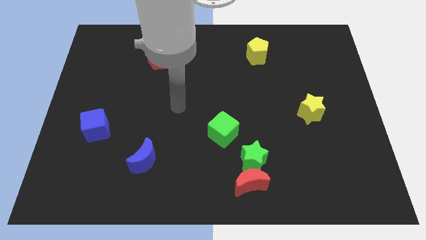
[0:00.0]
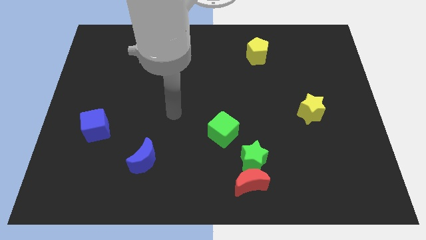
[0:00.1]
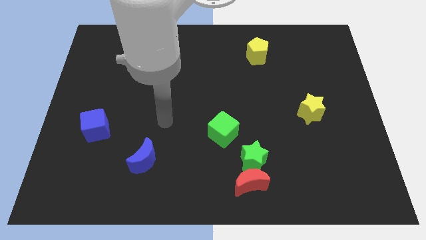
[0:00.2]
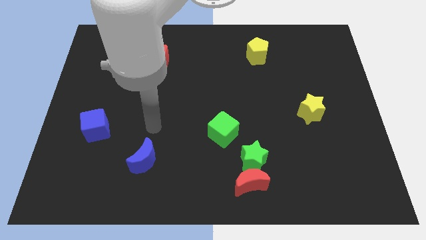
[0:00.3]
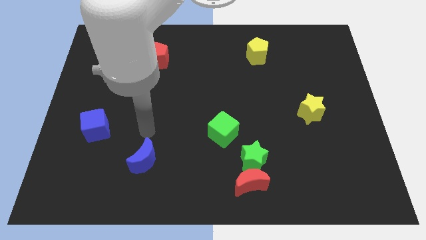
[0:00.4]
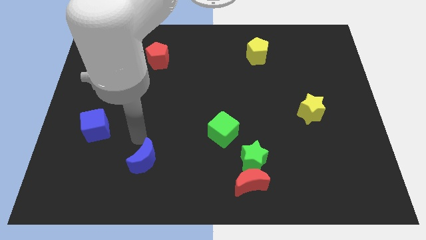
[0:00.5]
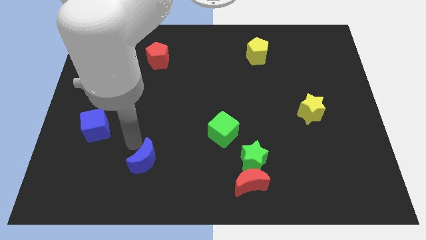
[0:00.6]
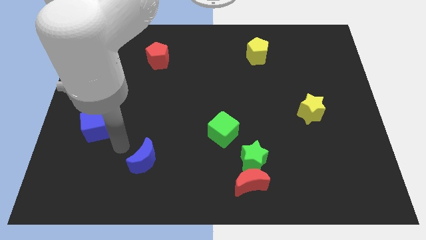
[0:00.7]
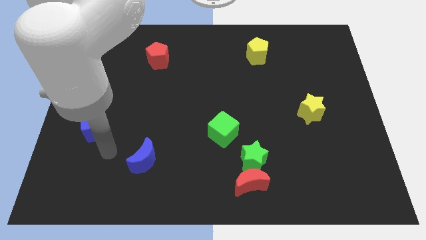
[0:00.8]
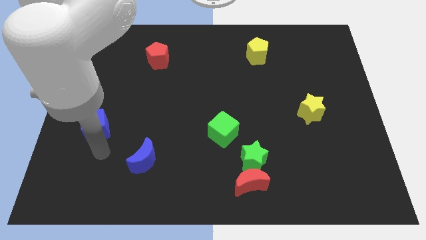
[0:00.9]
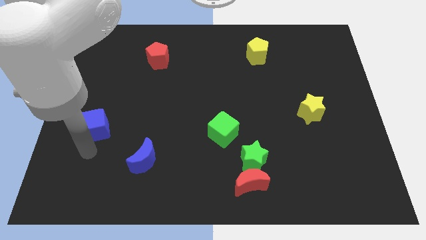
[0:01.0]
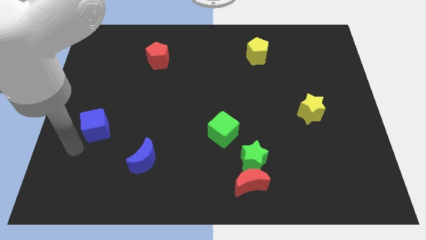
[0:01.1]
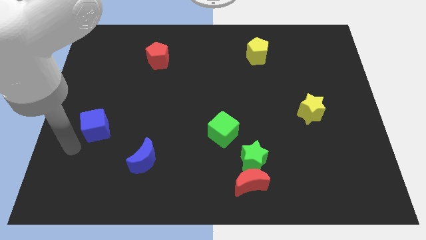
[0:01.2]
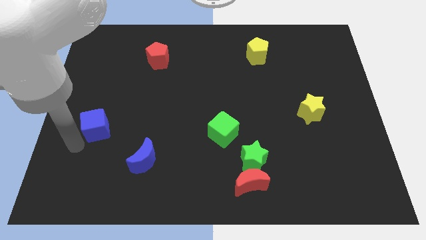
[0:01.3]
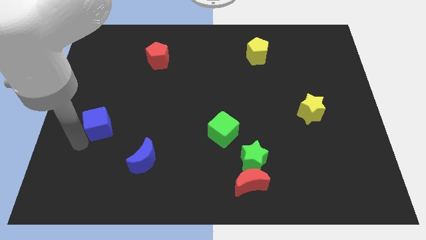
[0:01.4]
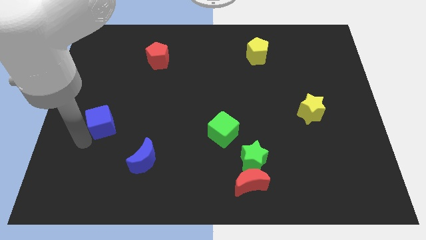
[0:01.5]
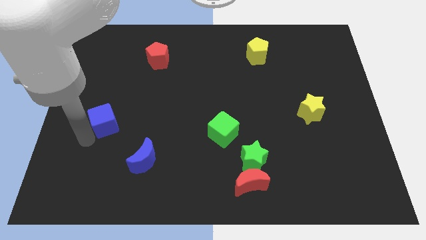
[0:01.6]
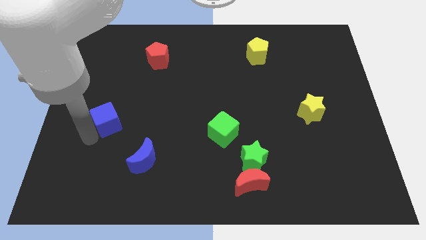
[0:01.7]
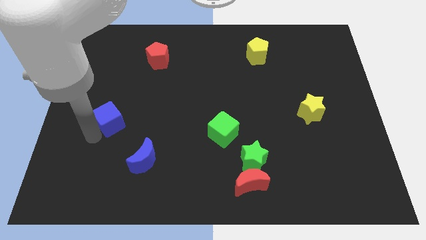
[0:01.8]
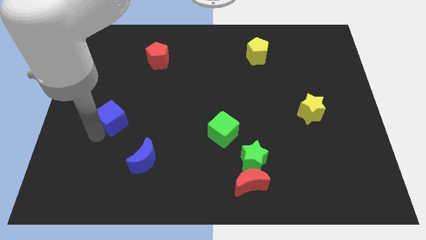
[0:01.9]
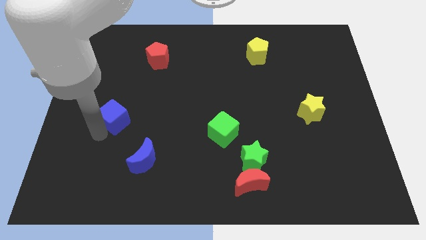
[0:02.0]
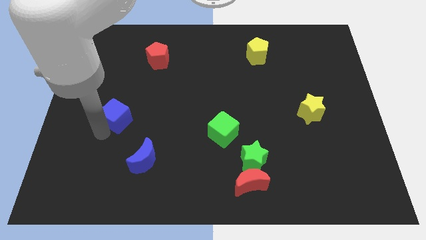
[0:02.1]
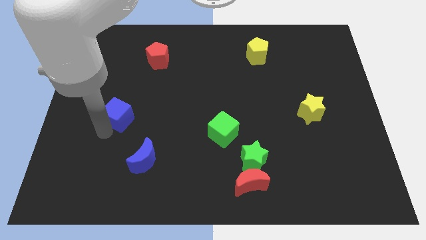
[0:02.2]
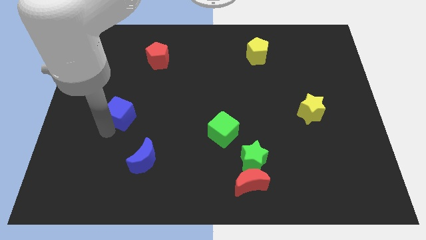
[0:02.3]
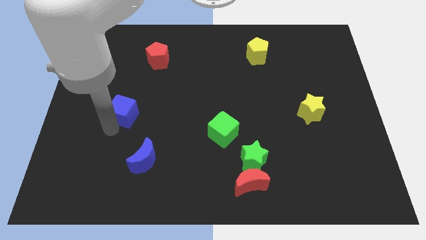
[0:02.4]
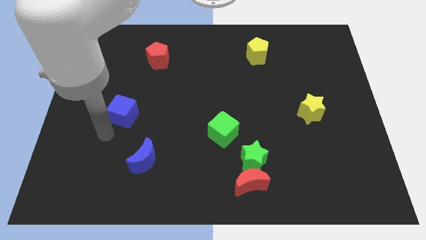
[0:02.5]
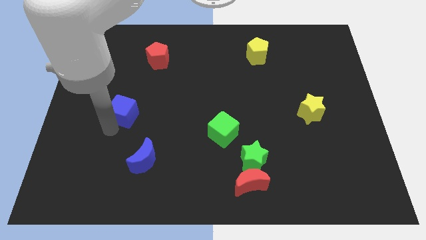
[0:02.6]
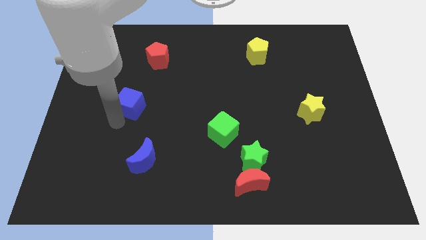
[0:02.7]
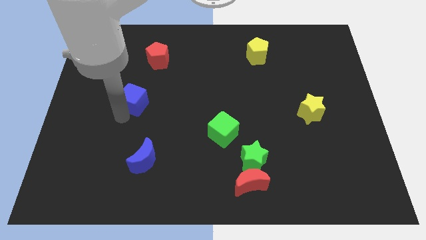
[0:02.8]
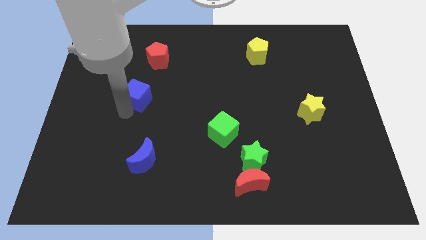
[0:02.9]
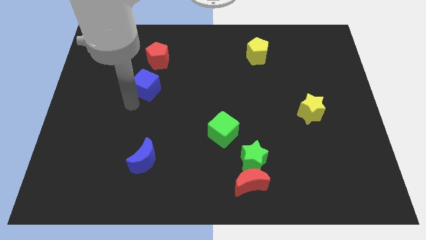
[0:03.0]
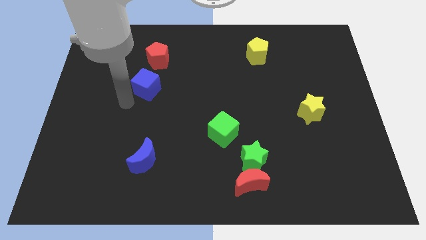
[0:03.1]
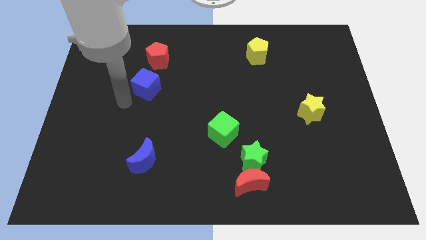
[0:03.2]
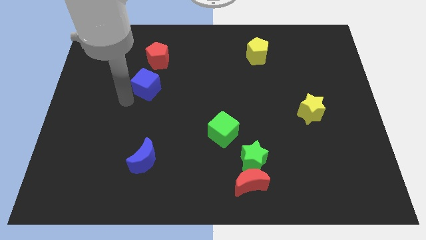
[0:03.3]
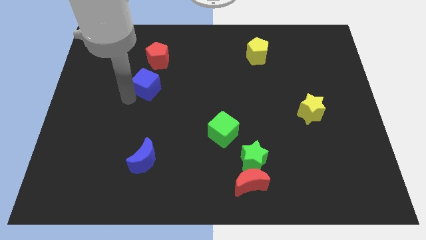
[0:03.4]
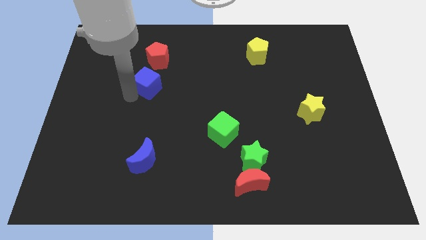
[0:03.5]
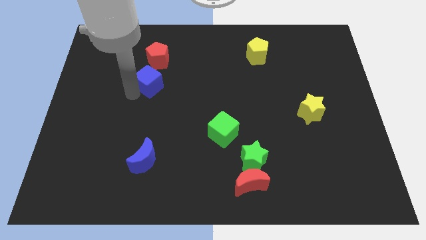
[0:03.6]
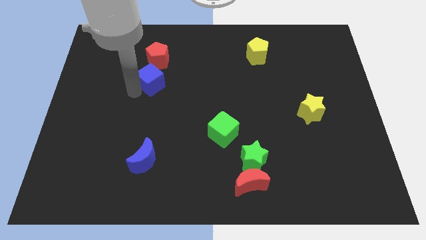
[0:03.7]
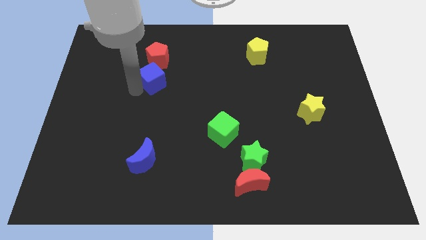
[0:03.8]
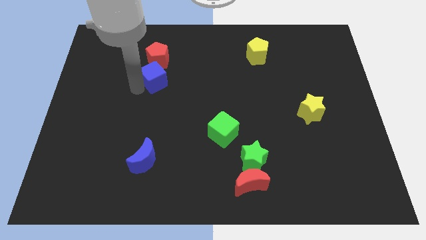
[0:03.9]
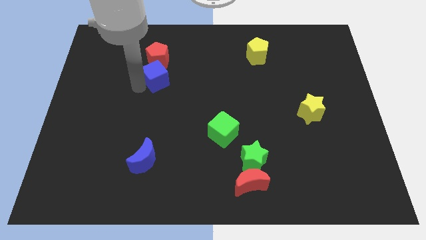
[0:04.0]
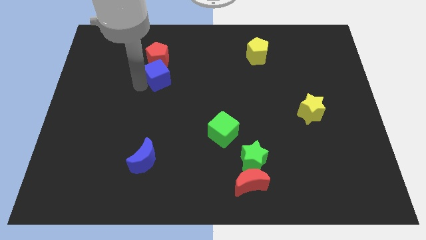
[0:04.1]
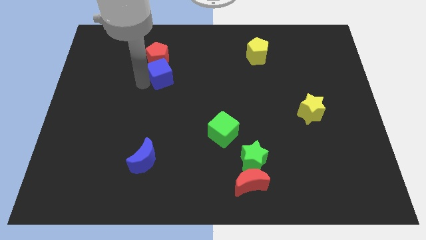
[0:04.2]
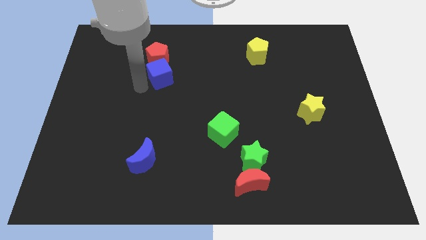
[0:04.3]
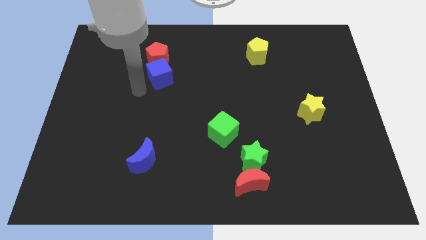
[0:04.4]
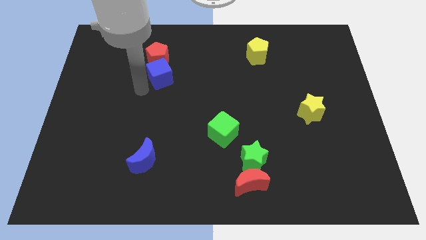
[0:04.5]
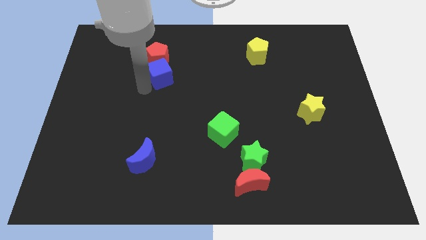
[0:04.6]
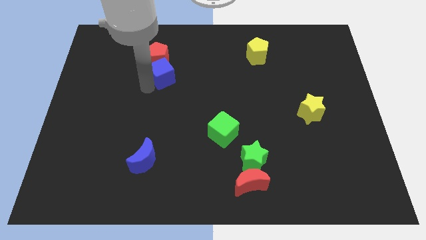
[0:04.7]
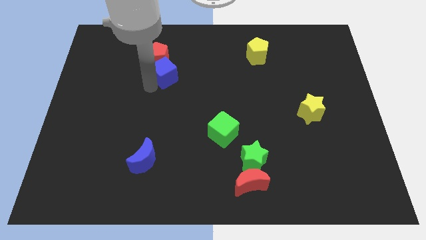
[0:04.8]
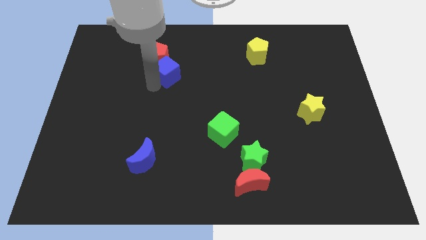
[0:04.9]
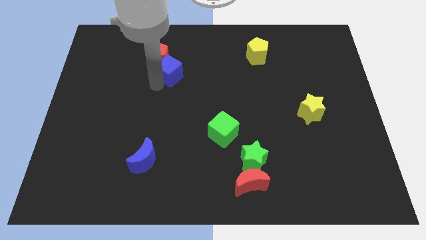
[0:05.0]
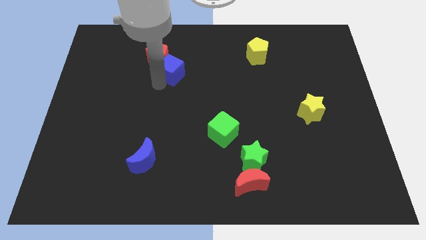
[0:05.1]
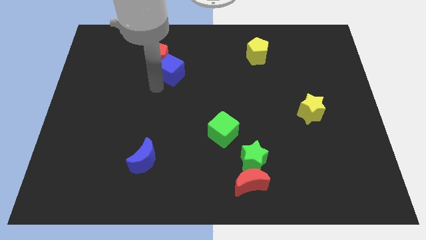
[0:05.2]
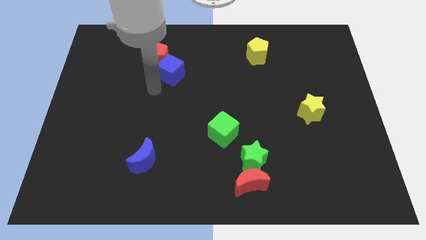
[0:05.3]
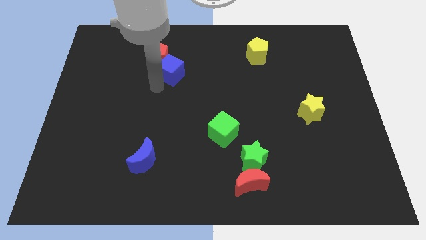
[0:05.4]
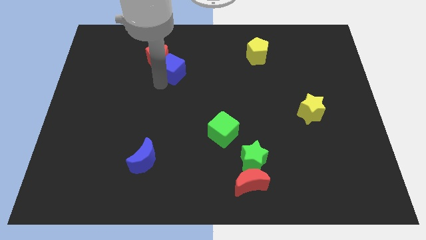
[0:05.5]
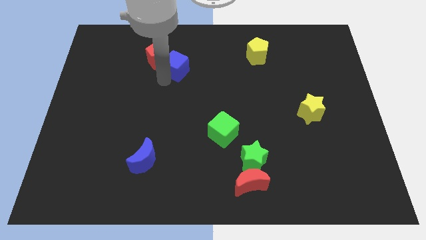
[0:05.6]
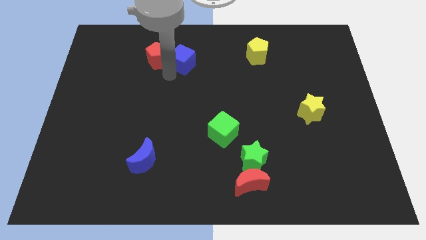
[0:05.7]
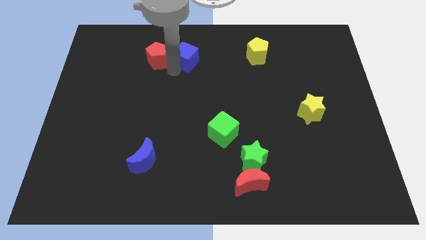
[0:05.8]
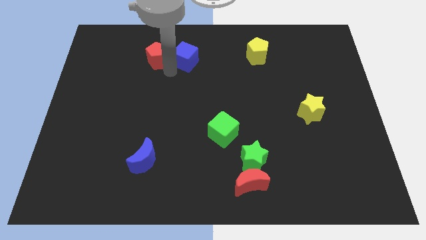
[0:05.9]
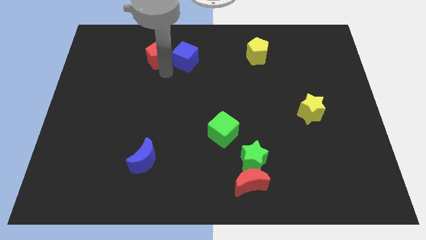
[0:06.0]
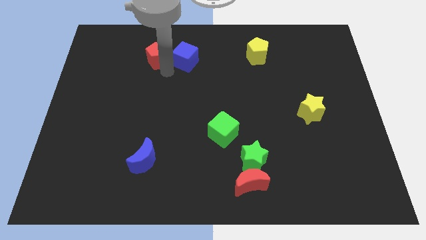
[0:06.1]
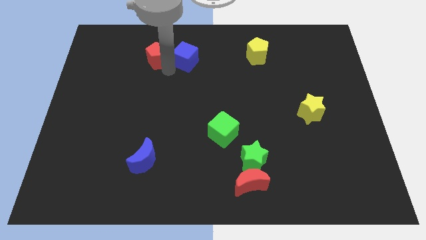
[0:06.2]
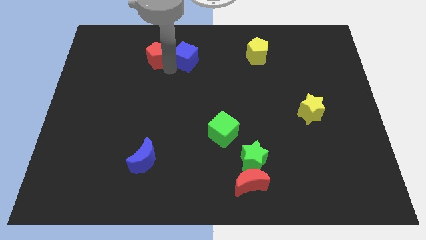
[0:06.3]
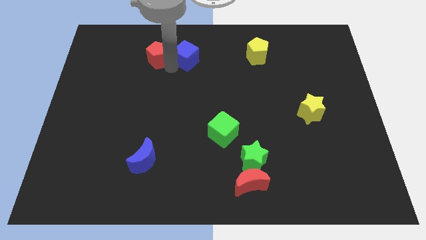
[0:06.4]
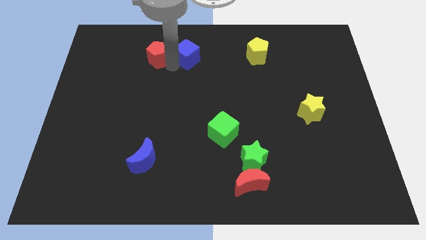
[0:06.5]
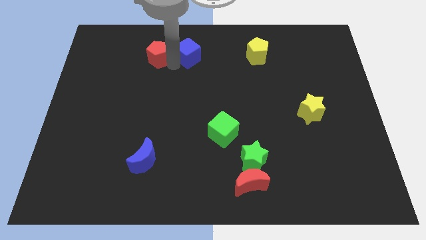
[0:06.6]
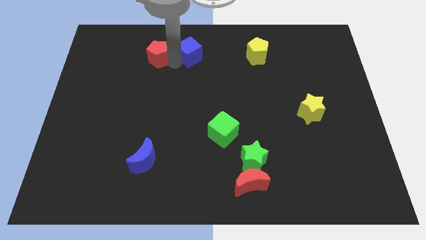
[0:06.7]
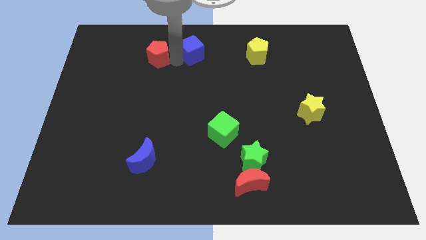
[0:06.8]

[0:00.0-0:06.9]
put the blue cube to the top side

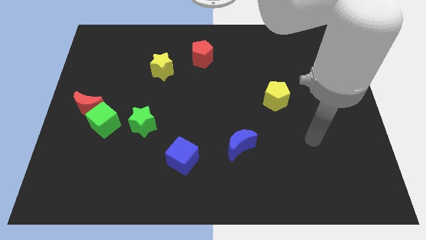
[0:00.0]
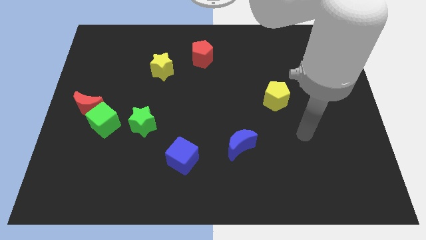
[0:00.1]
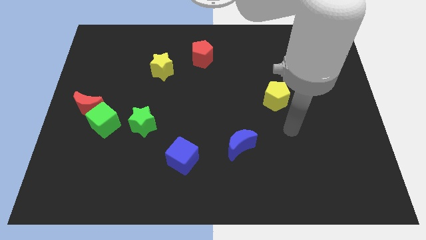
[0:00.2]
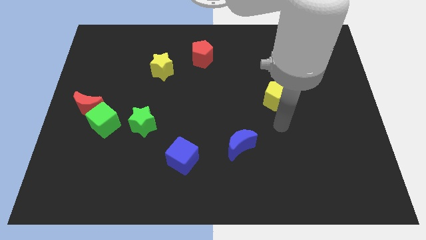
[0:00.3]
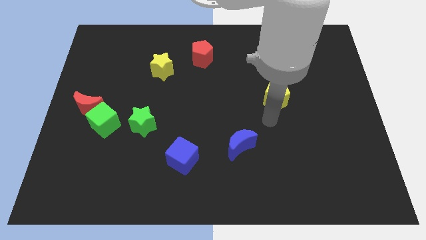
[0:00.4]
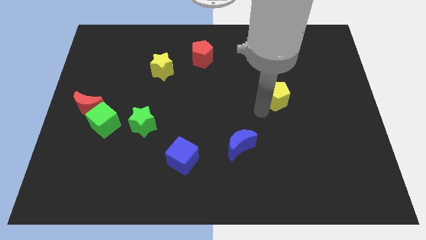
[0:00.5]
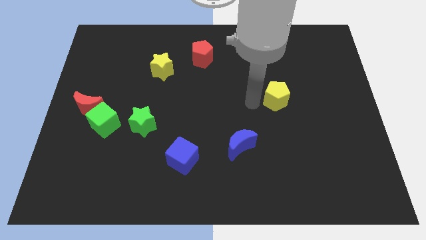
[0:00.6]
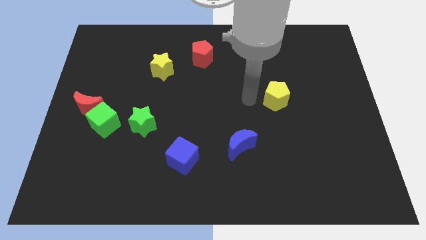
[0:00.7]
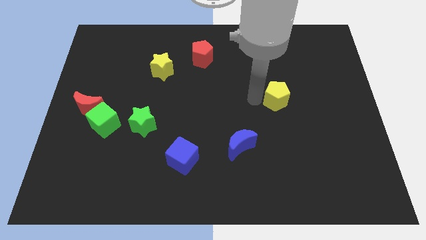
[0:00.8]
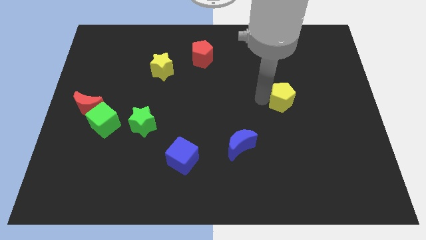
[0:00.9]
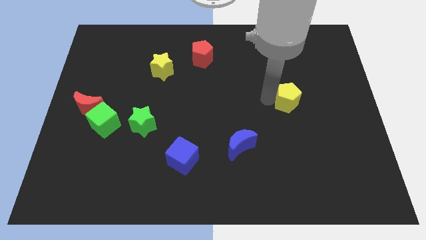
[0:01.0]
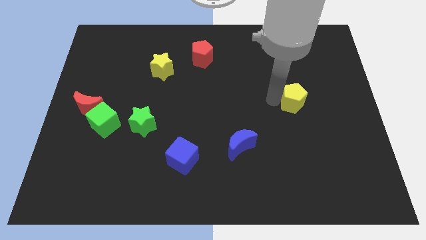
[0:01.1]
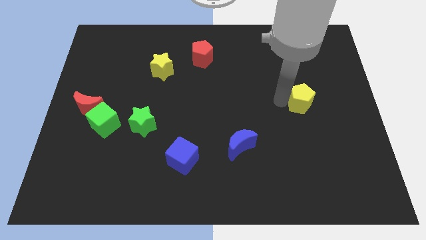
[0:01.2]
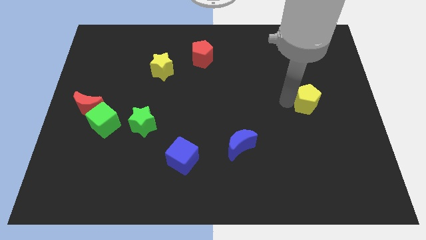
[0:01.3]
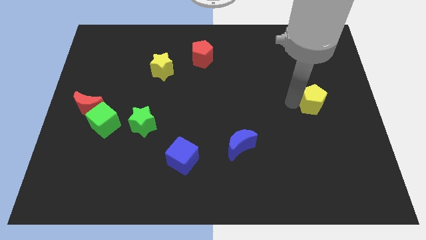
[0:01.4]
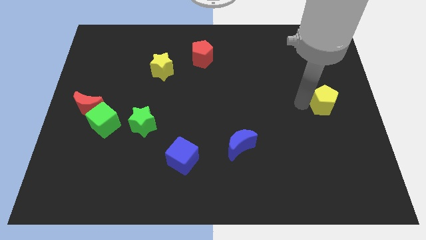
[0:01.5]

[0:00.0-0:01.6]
push the yellow pentagon to the right side of the board
